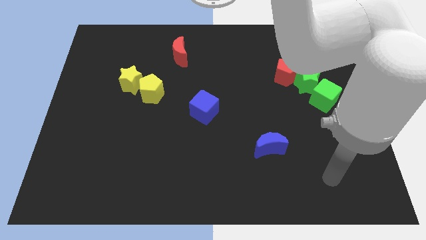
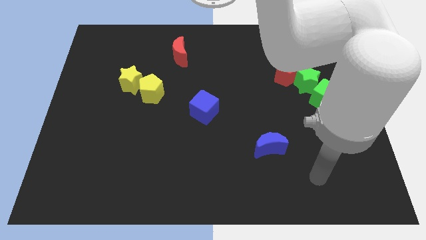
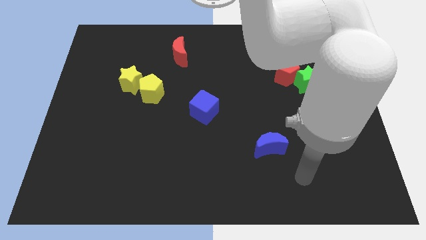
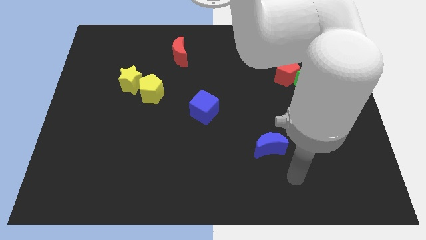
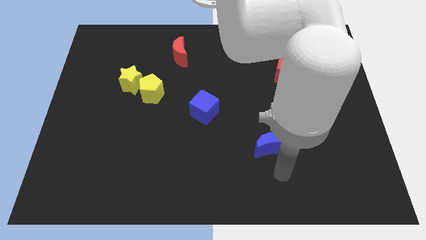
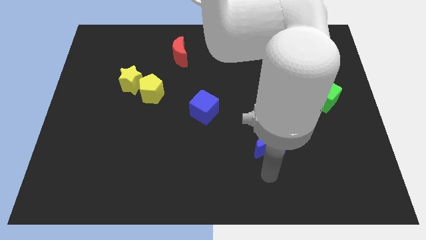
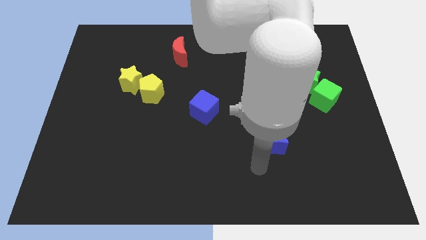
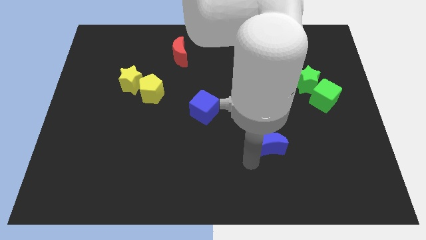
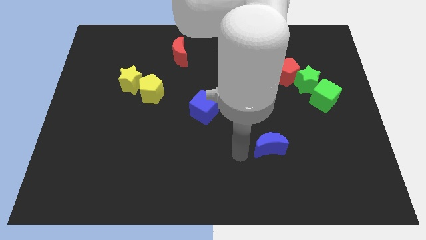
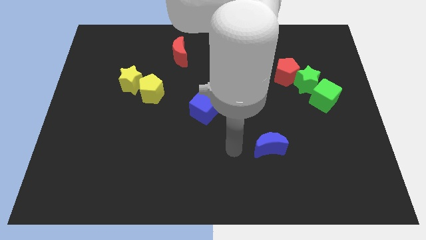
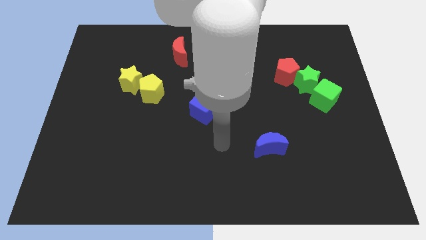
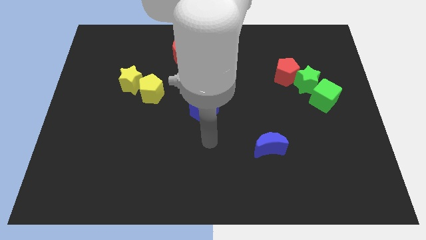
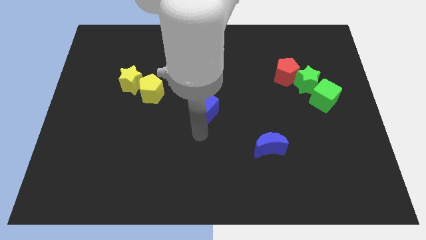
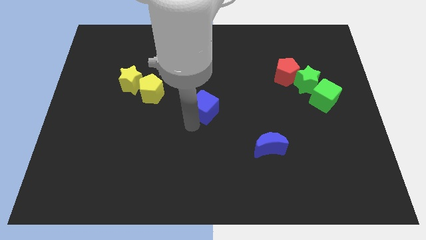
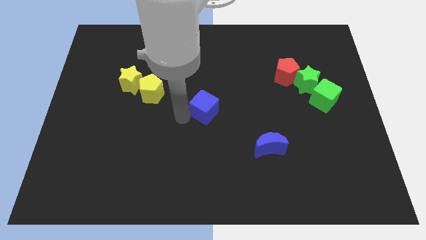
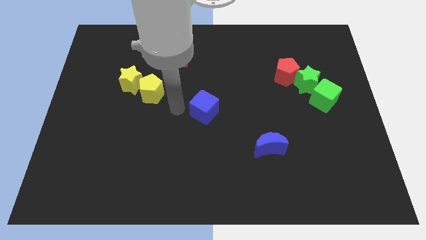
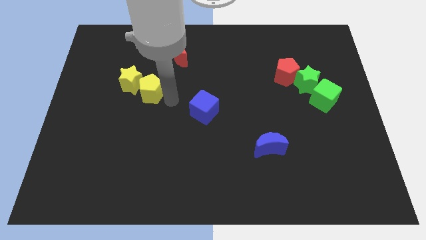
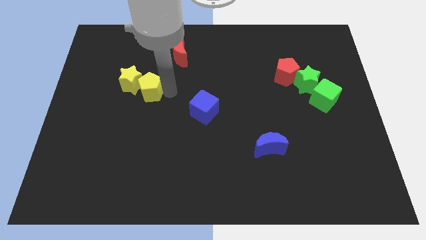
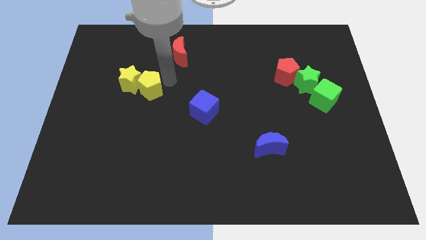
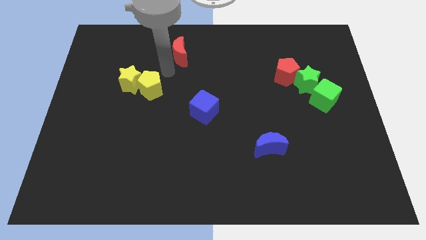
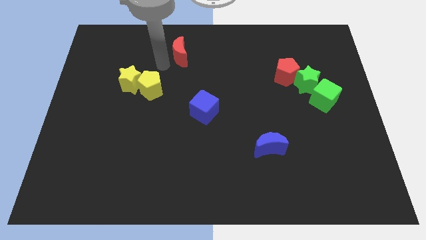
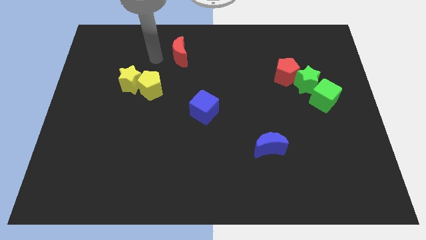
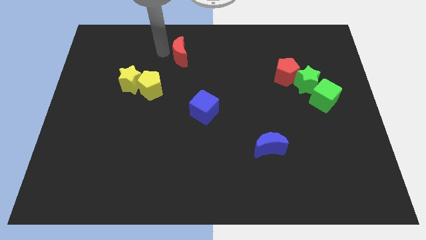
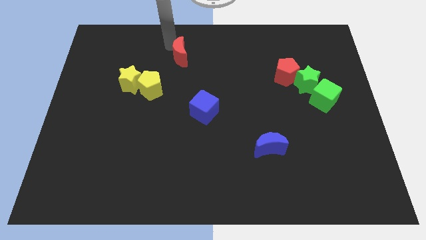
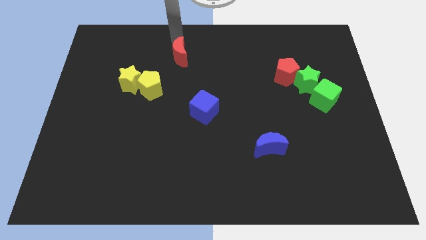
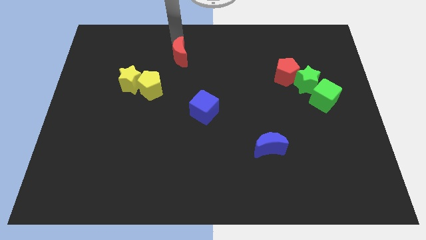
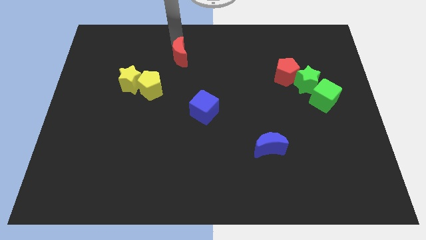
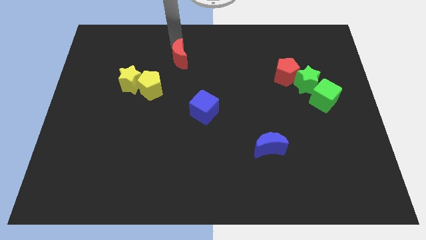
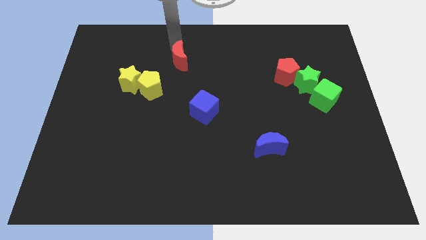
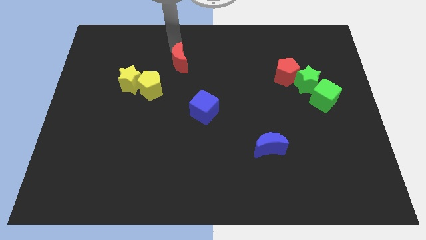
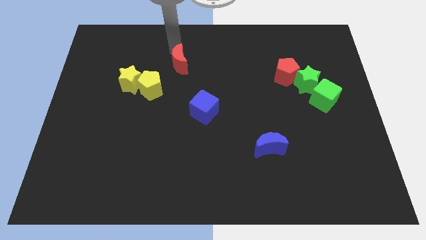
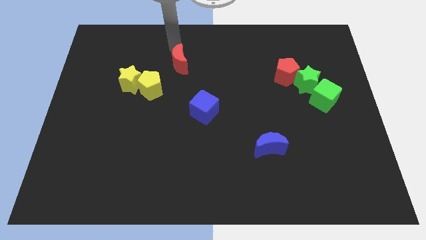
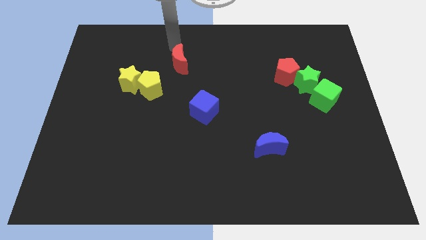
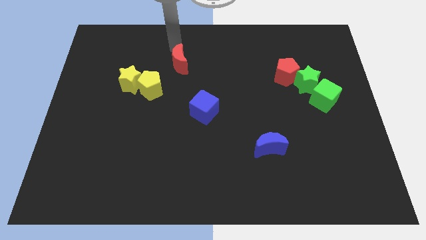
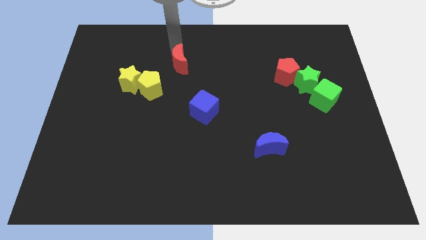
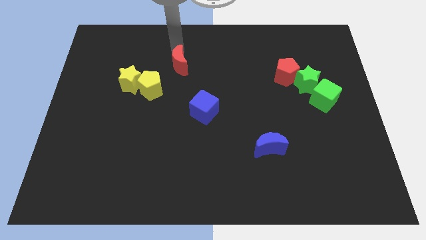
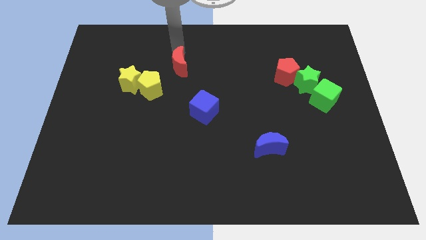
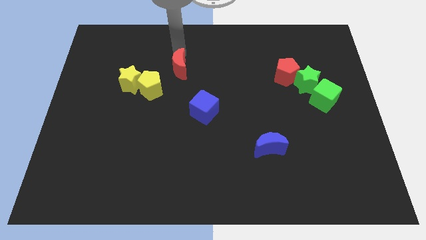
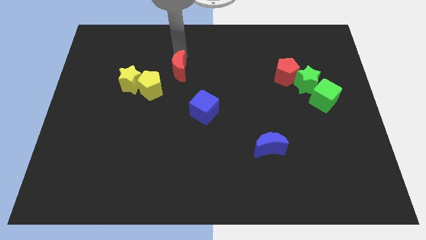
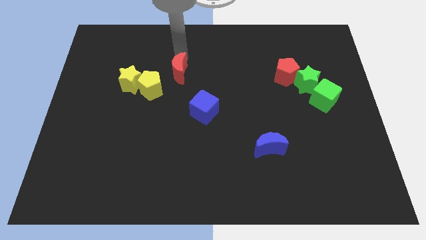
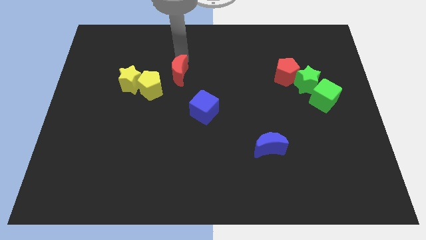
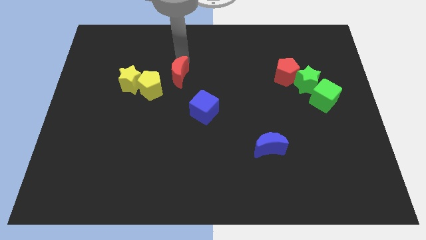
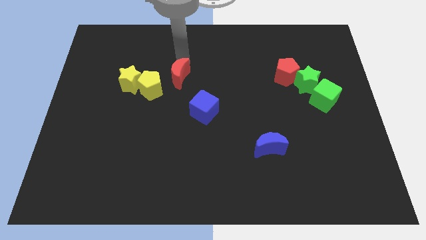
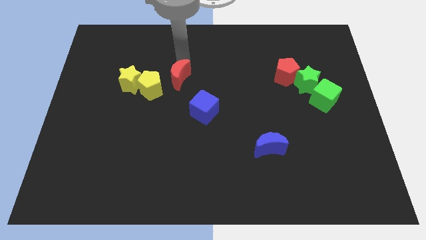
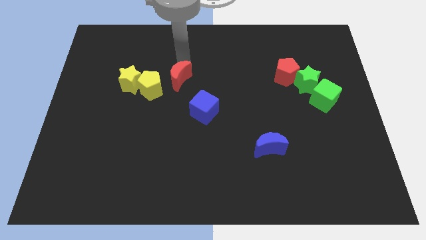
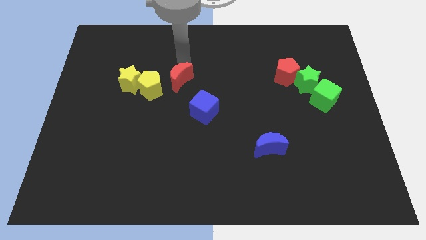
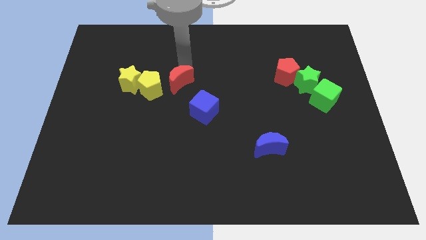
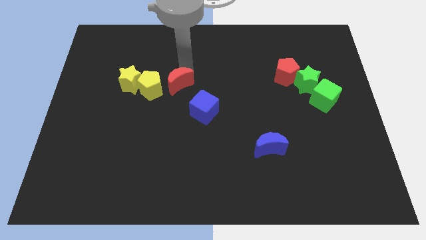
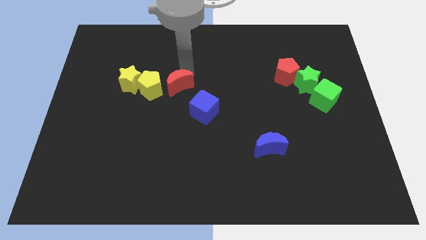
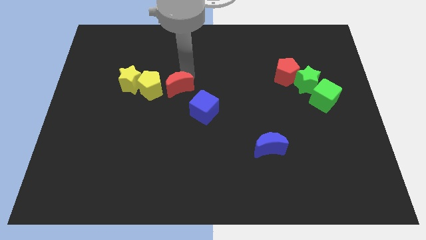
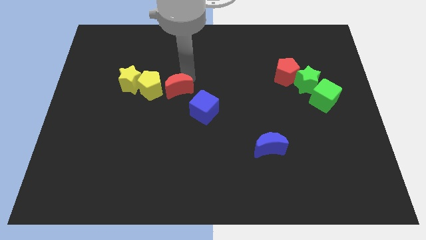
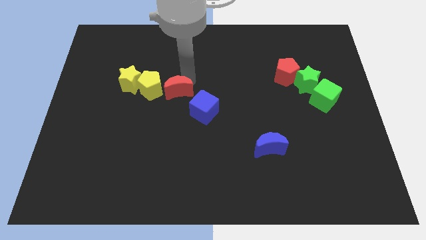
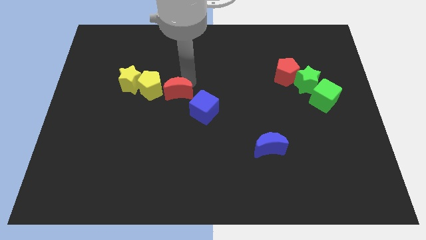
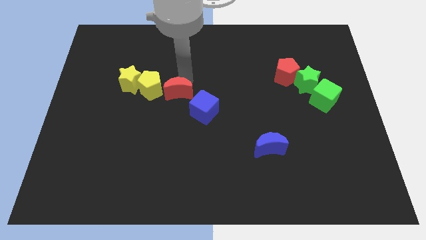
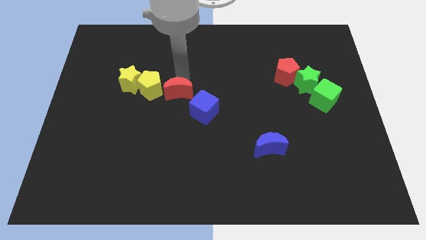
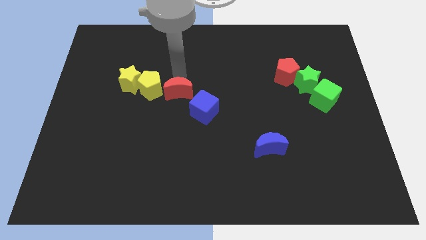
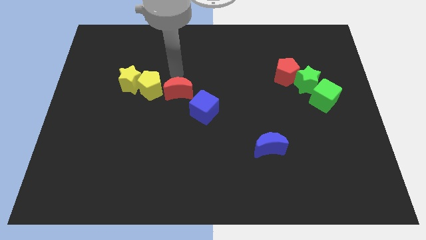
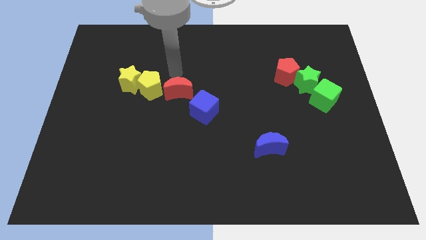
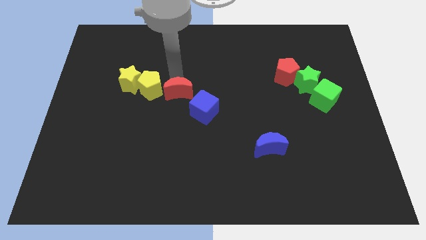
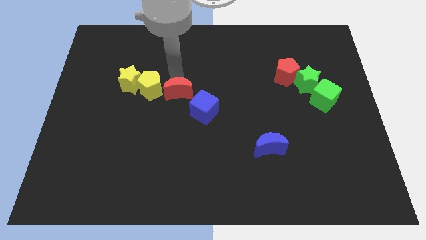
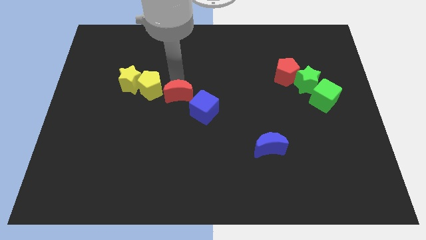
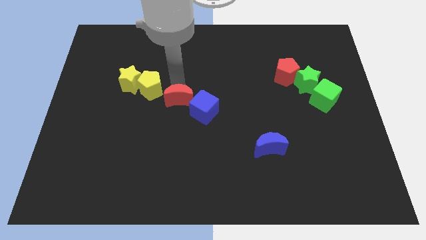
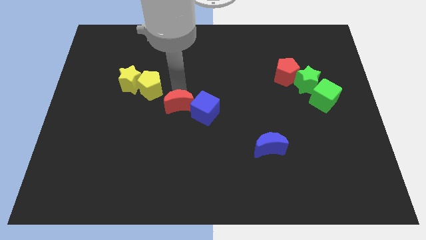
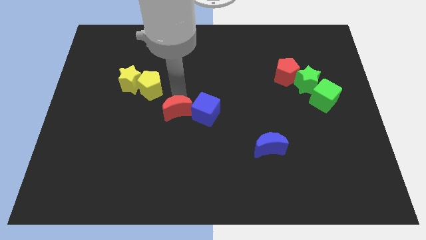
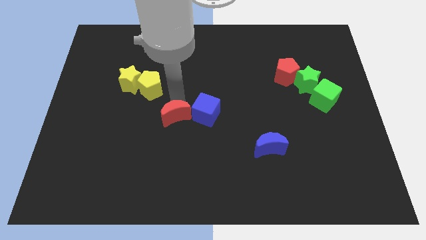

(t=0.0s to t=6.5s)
push the red moon down

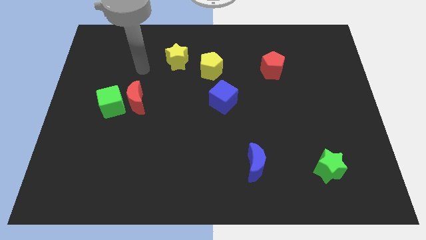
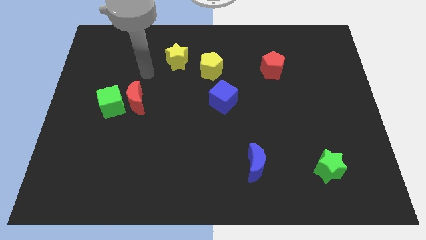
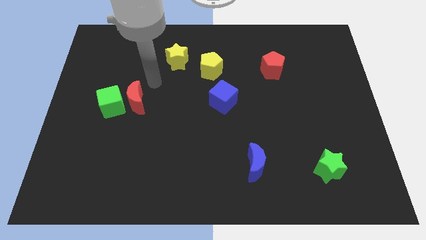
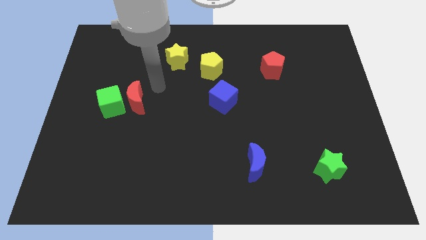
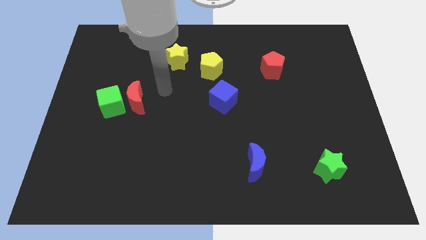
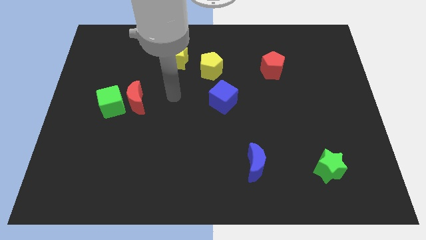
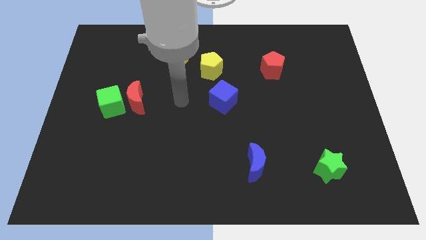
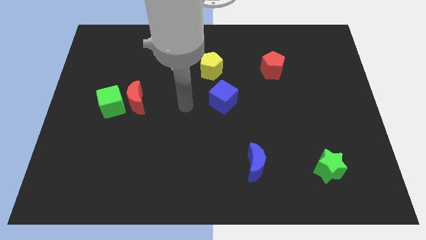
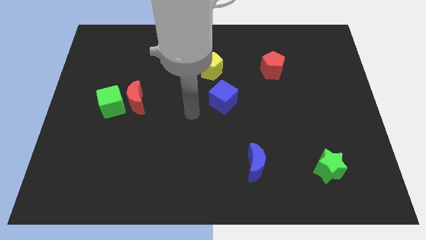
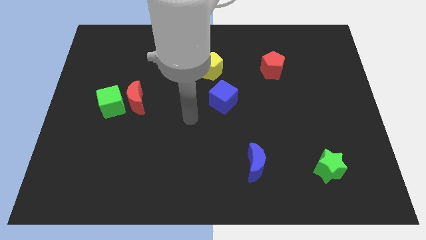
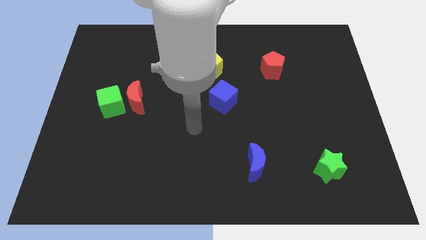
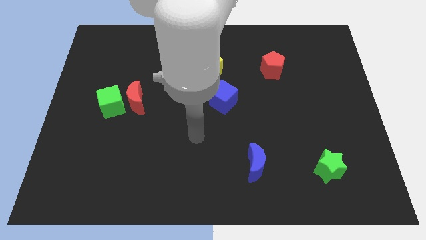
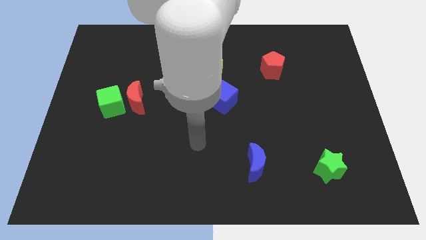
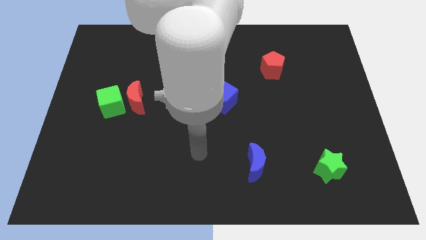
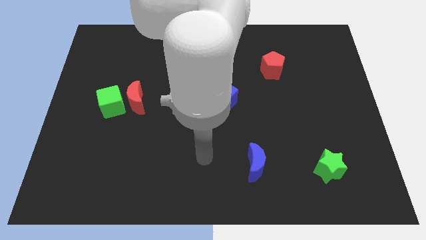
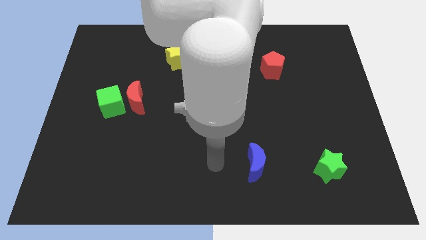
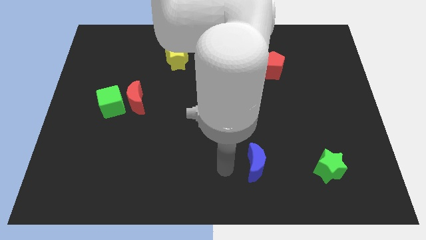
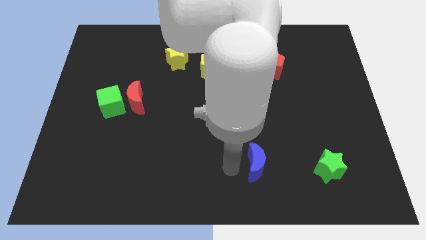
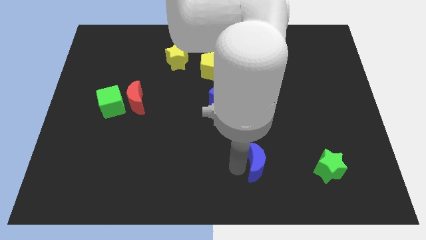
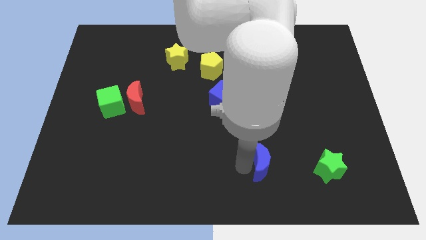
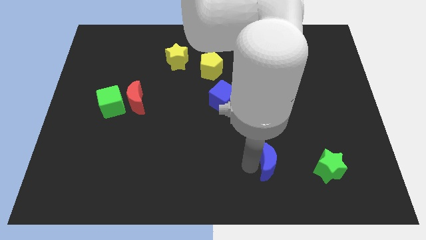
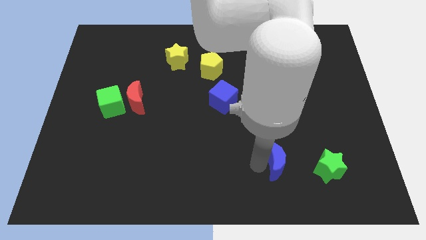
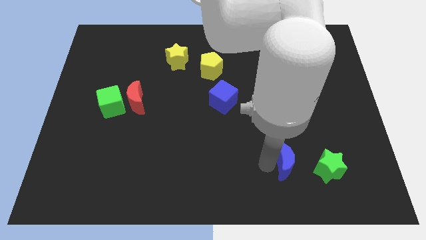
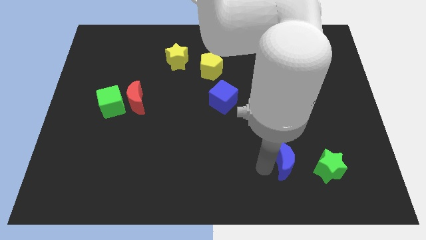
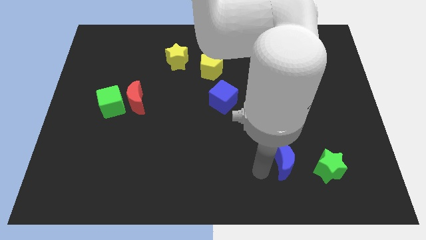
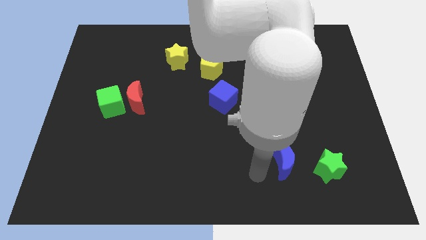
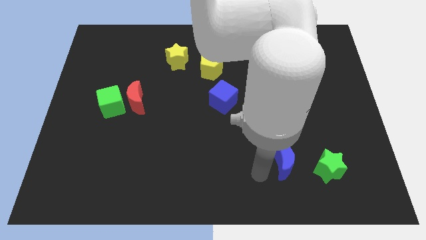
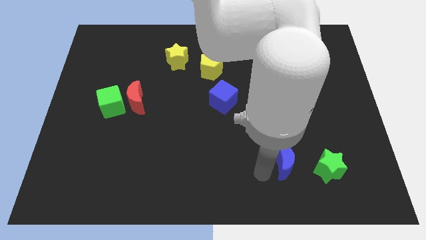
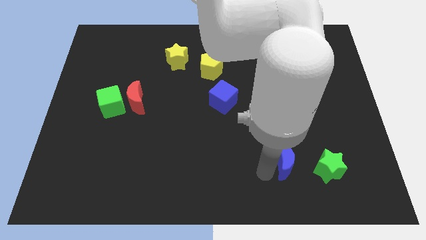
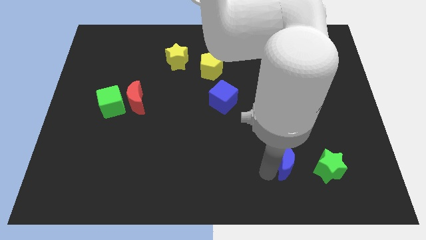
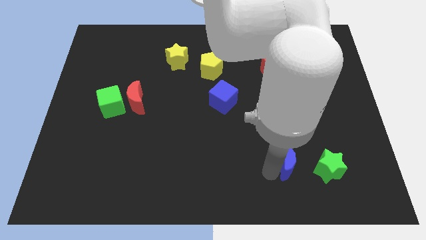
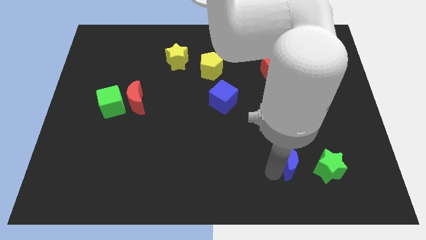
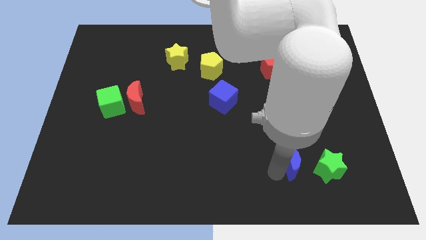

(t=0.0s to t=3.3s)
push the blue moon right a bit
